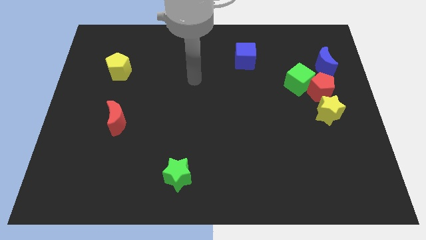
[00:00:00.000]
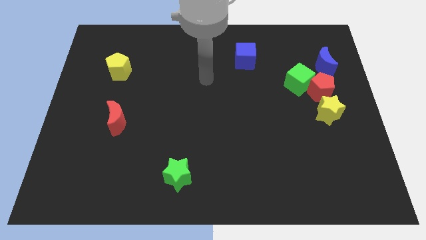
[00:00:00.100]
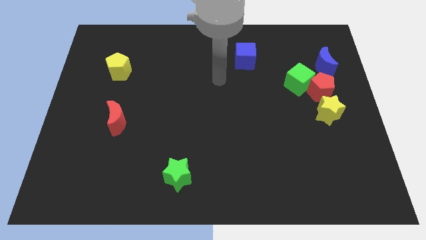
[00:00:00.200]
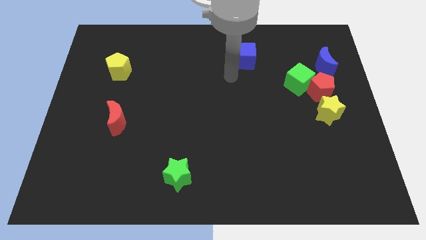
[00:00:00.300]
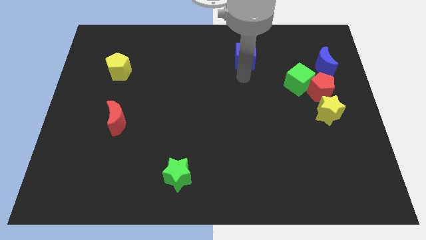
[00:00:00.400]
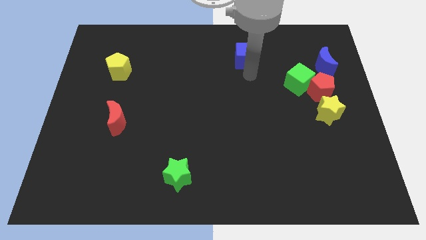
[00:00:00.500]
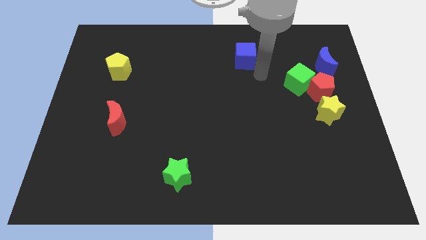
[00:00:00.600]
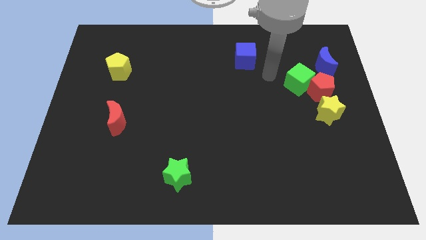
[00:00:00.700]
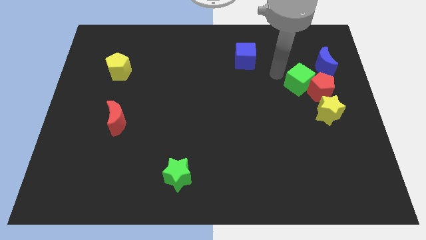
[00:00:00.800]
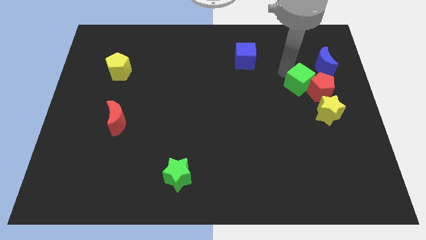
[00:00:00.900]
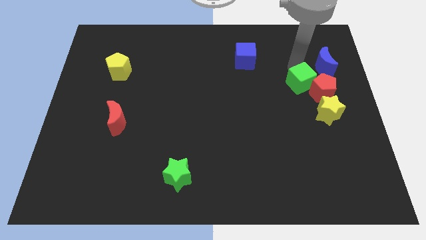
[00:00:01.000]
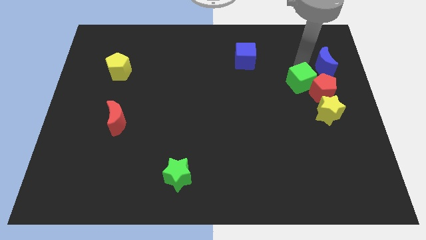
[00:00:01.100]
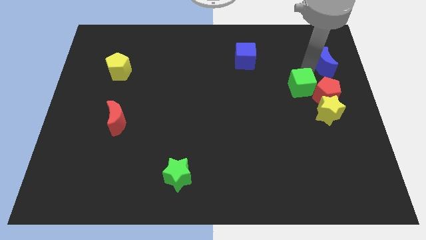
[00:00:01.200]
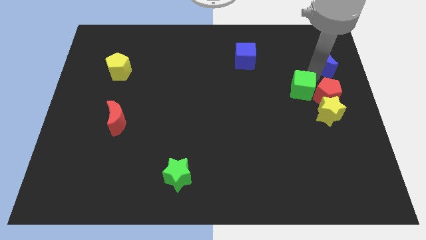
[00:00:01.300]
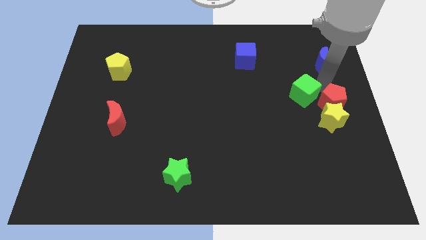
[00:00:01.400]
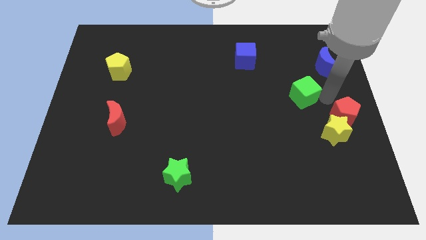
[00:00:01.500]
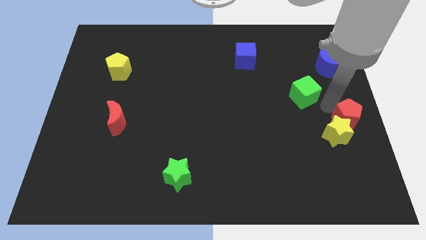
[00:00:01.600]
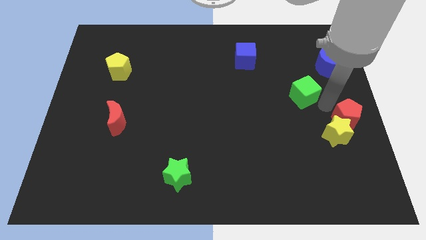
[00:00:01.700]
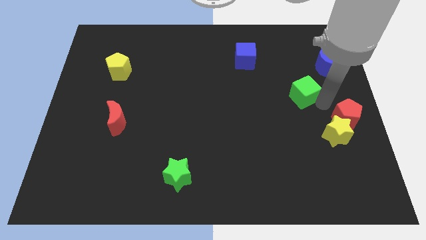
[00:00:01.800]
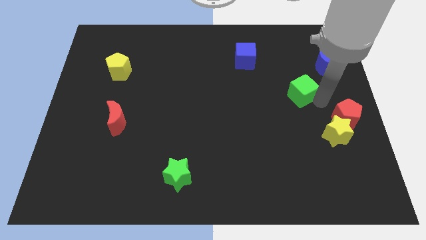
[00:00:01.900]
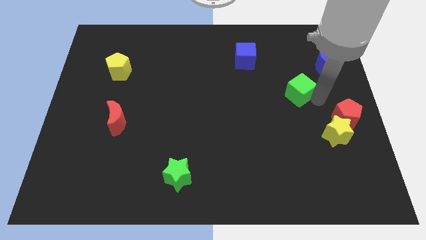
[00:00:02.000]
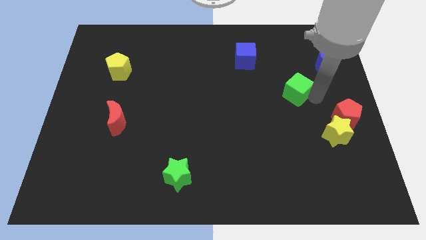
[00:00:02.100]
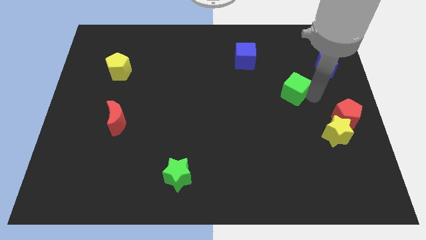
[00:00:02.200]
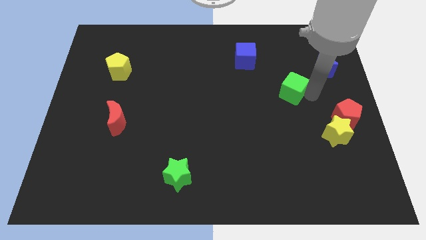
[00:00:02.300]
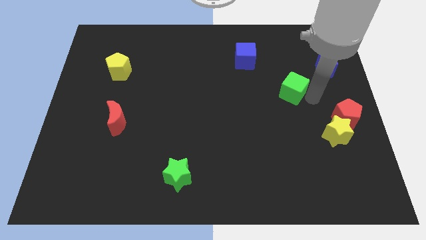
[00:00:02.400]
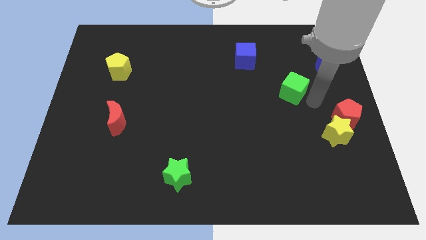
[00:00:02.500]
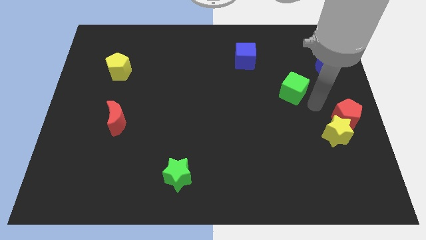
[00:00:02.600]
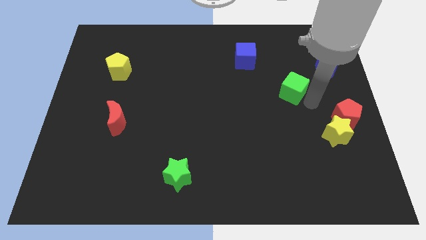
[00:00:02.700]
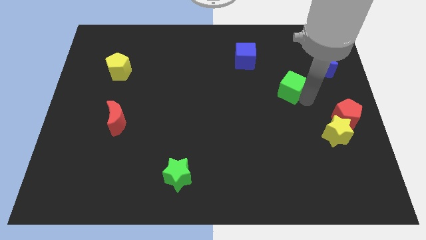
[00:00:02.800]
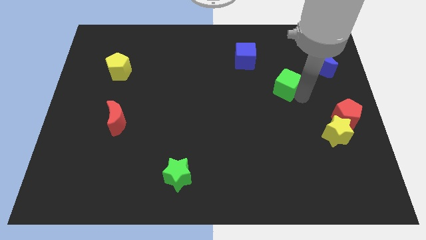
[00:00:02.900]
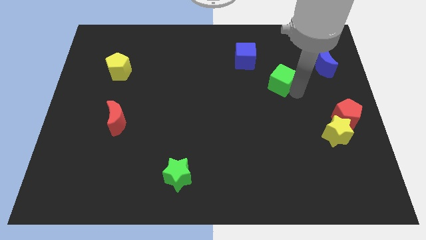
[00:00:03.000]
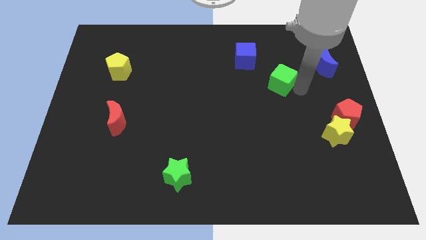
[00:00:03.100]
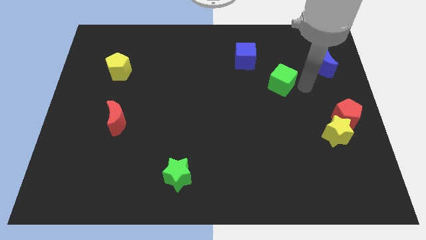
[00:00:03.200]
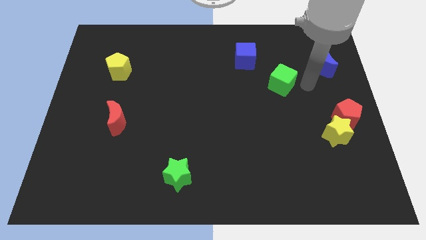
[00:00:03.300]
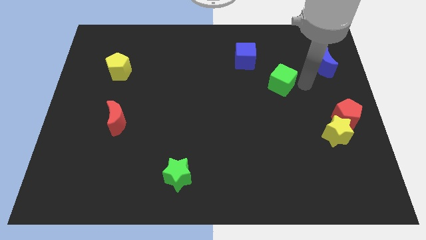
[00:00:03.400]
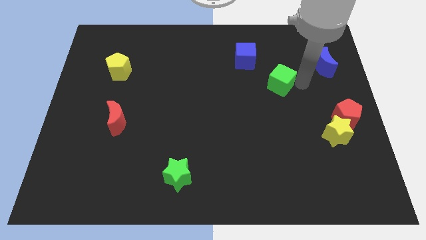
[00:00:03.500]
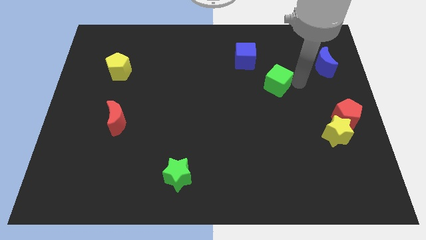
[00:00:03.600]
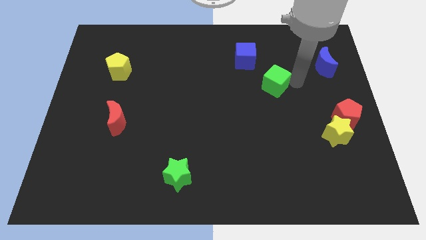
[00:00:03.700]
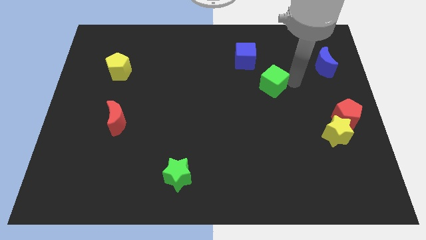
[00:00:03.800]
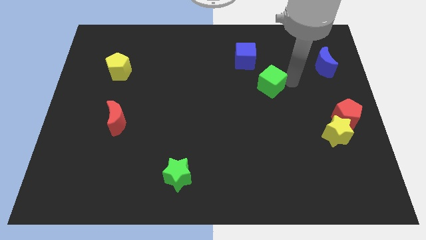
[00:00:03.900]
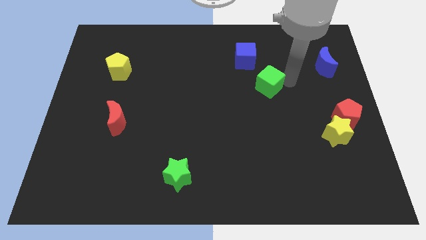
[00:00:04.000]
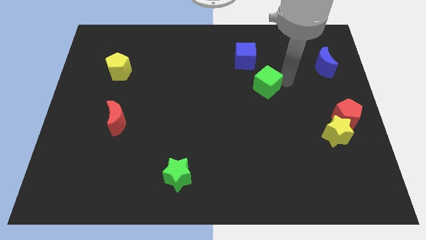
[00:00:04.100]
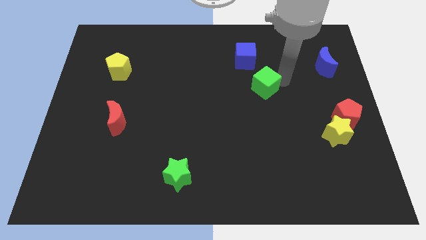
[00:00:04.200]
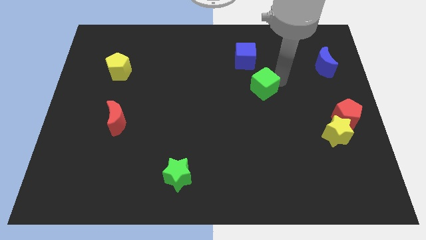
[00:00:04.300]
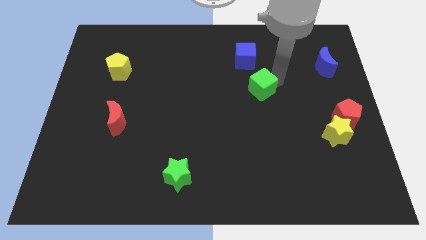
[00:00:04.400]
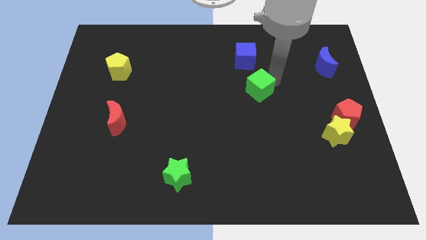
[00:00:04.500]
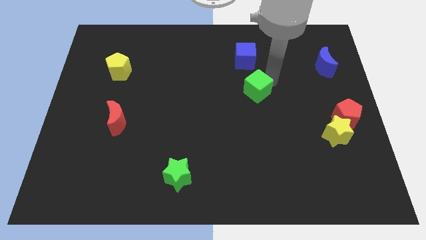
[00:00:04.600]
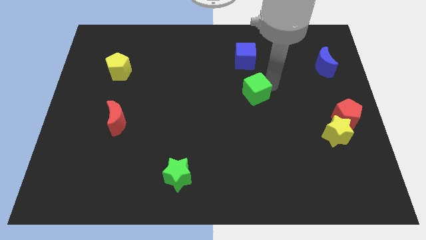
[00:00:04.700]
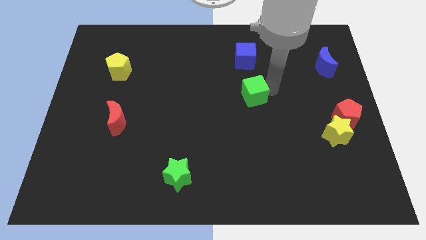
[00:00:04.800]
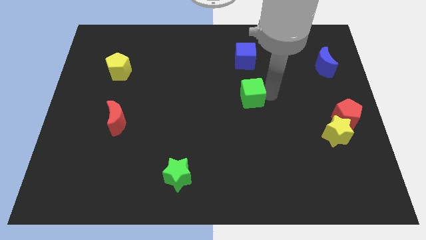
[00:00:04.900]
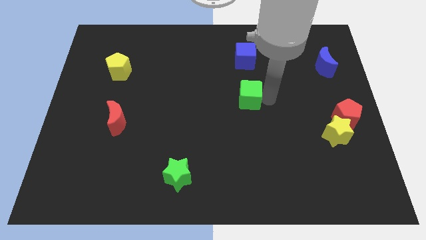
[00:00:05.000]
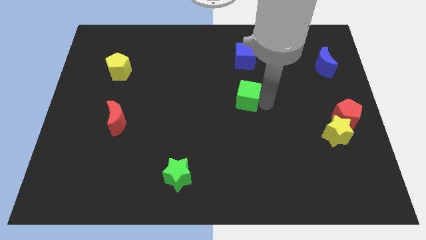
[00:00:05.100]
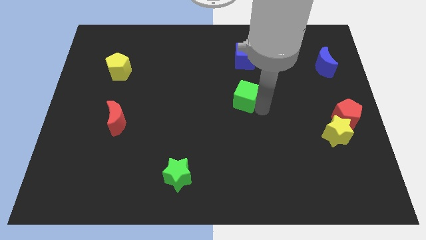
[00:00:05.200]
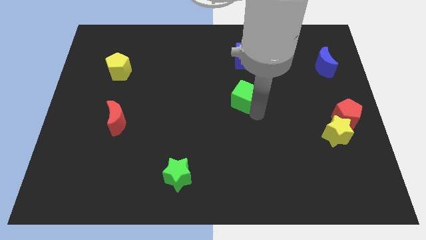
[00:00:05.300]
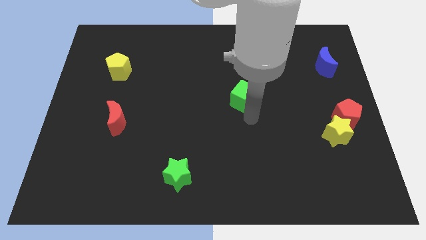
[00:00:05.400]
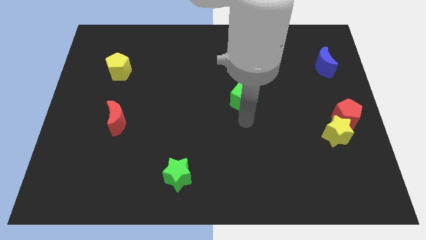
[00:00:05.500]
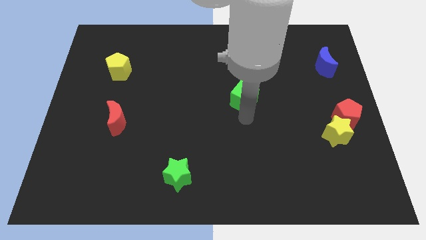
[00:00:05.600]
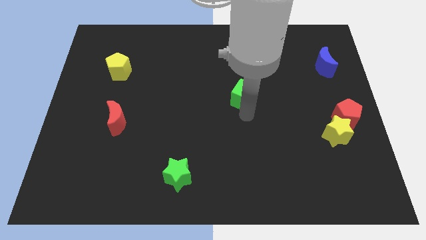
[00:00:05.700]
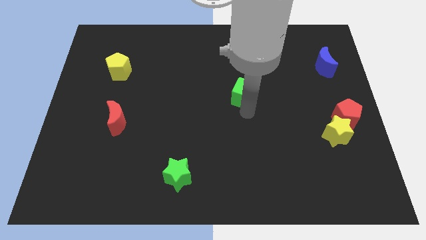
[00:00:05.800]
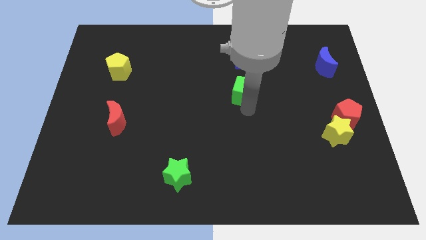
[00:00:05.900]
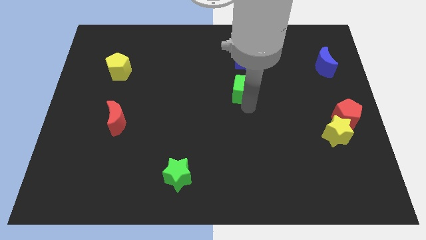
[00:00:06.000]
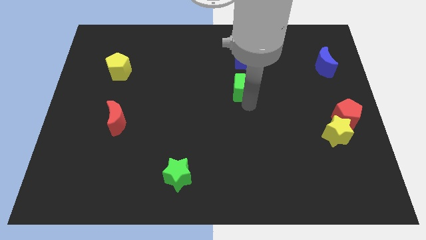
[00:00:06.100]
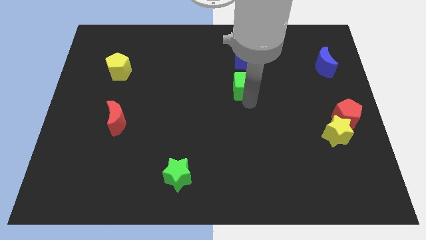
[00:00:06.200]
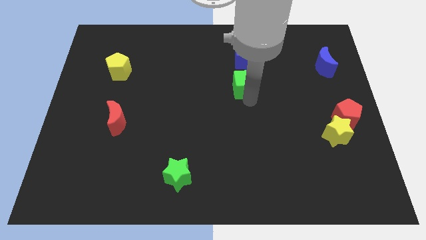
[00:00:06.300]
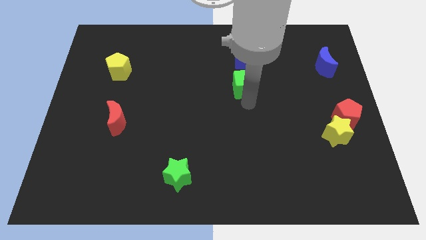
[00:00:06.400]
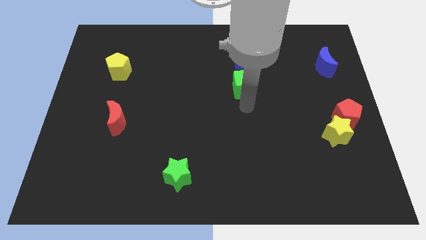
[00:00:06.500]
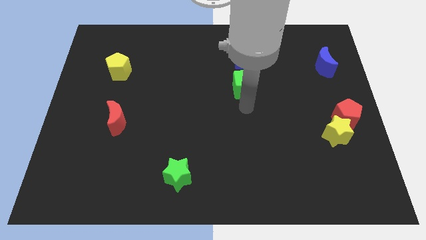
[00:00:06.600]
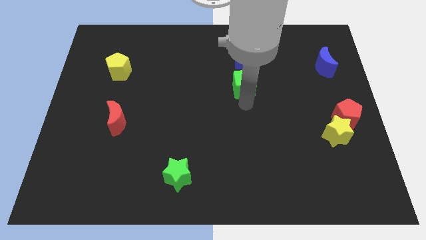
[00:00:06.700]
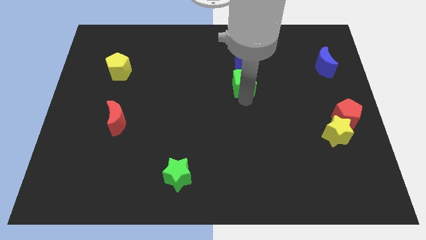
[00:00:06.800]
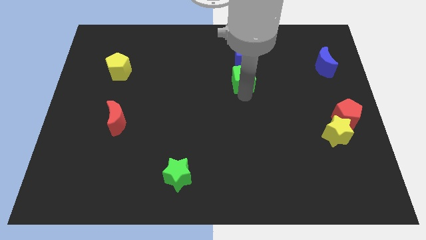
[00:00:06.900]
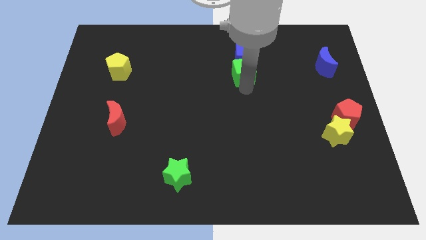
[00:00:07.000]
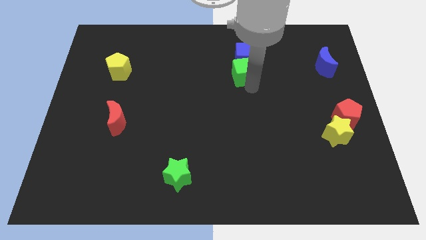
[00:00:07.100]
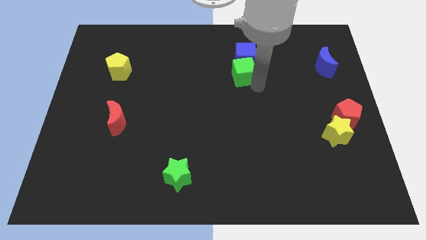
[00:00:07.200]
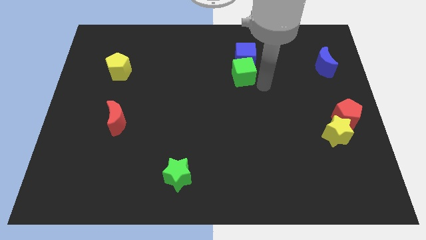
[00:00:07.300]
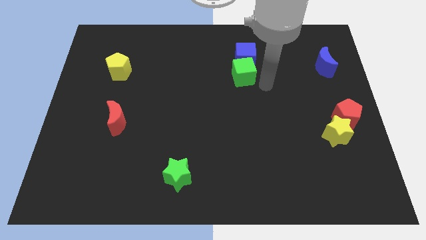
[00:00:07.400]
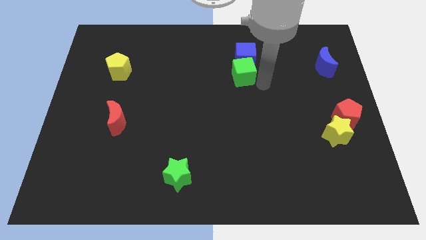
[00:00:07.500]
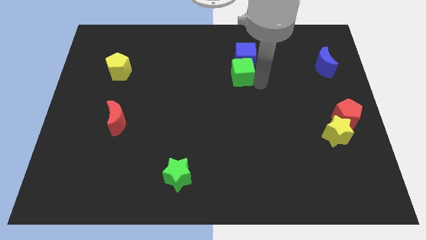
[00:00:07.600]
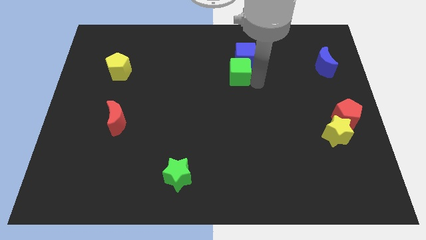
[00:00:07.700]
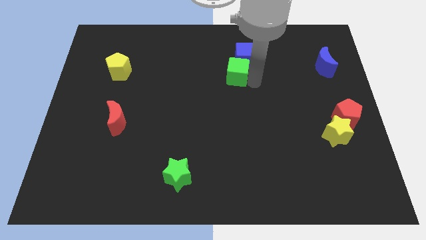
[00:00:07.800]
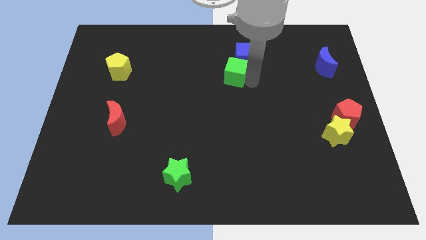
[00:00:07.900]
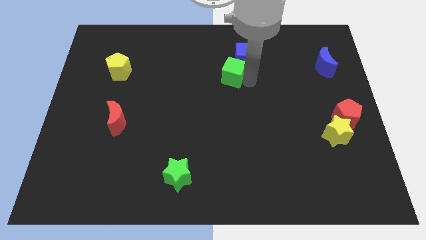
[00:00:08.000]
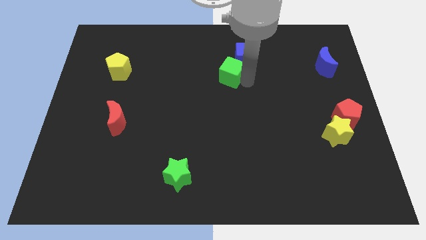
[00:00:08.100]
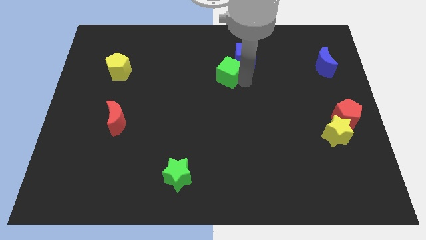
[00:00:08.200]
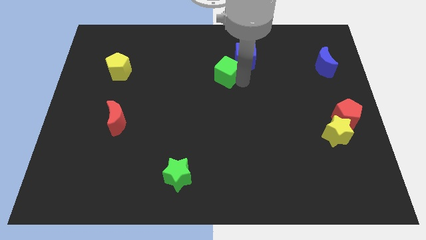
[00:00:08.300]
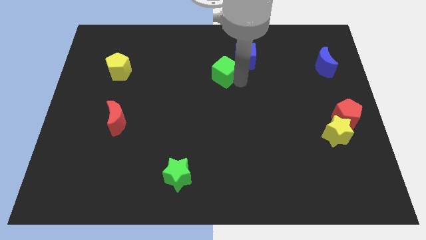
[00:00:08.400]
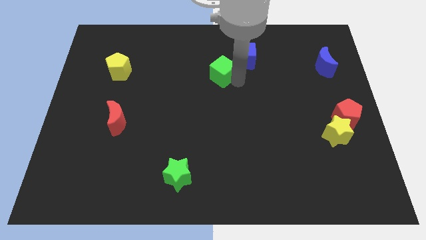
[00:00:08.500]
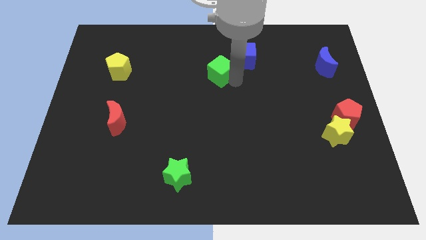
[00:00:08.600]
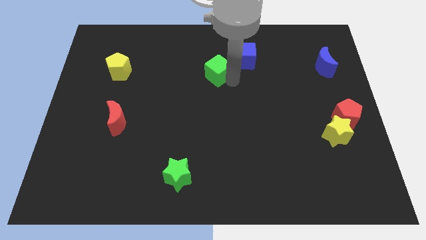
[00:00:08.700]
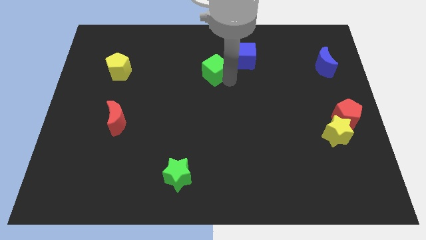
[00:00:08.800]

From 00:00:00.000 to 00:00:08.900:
push the green cube to the left side of the blue cube
